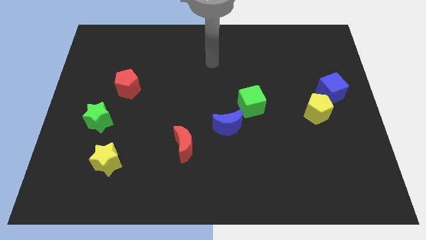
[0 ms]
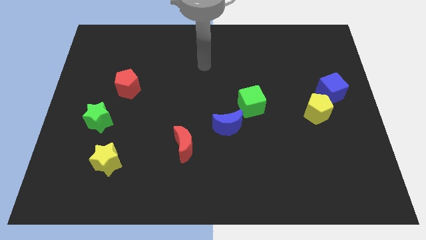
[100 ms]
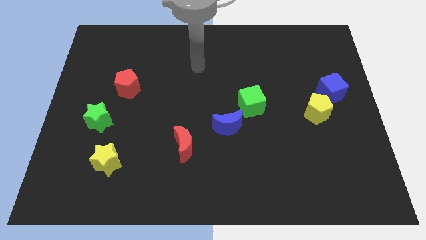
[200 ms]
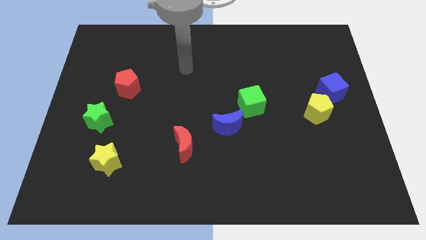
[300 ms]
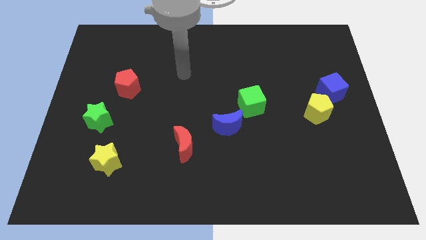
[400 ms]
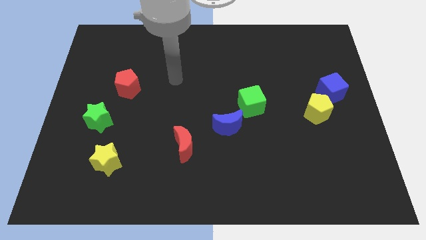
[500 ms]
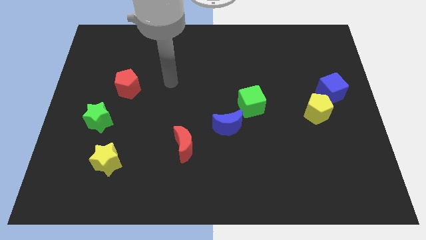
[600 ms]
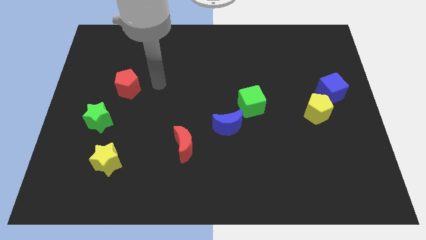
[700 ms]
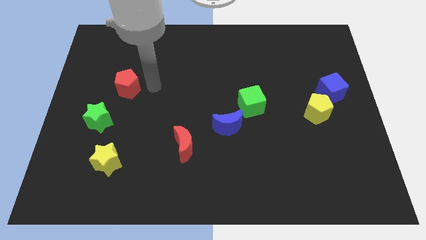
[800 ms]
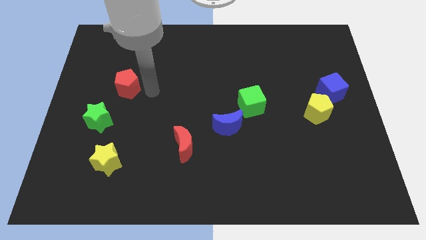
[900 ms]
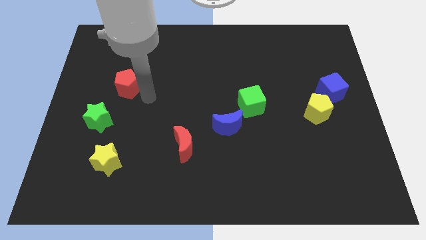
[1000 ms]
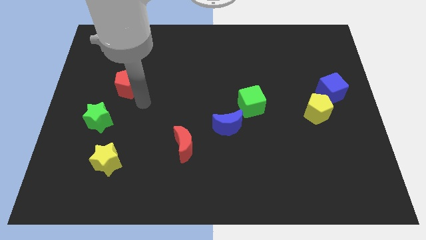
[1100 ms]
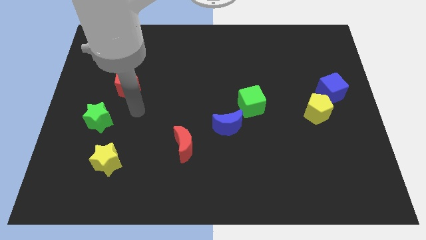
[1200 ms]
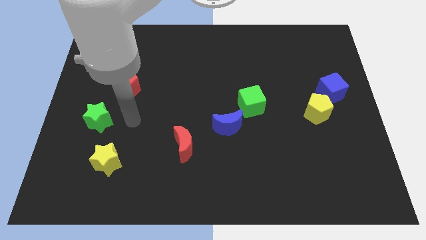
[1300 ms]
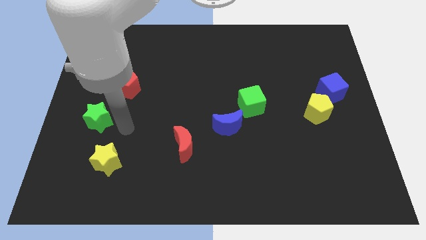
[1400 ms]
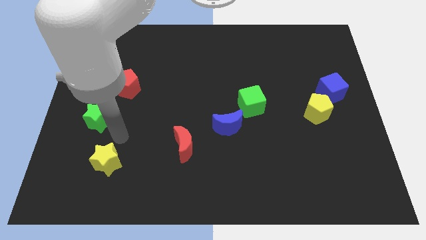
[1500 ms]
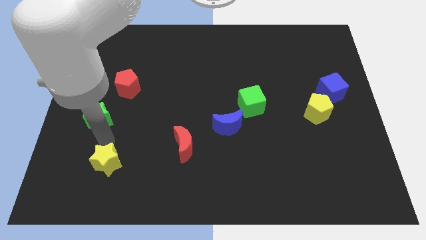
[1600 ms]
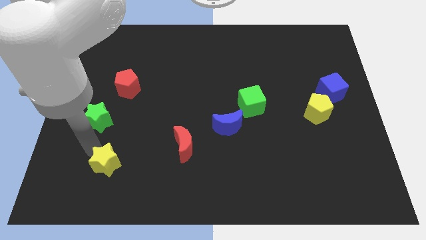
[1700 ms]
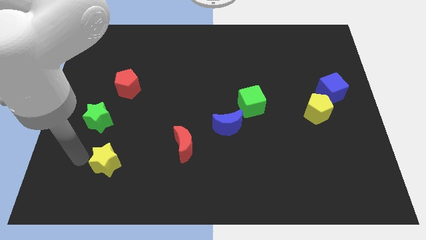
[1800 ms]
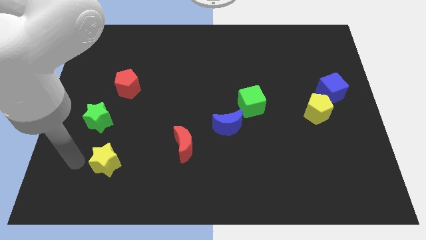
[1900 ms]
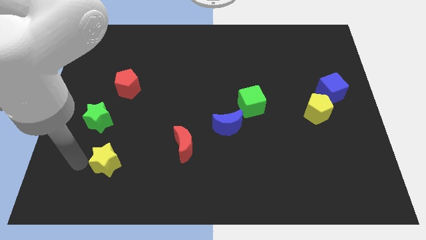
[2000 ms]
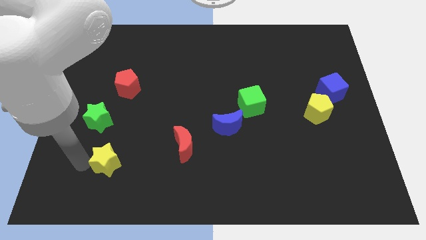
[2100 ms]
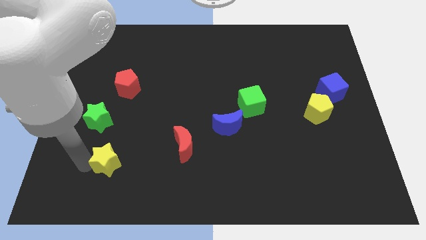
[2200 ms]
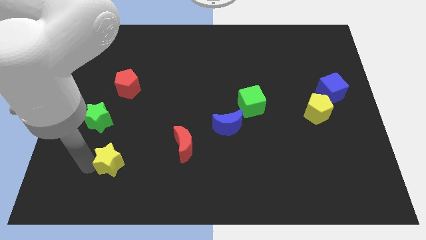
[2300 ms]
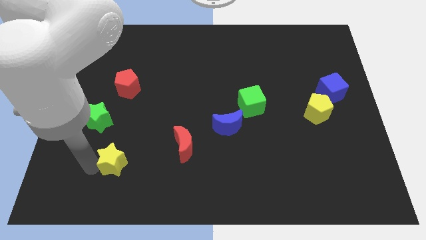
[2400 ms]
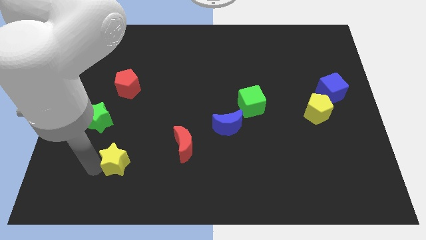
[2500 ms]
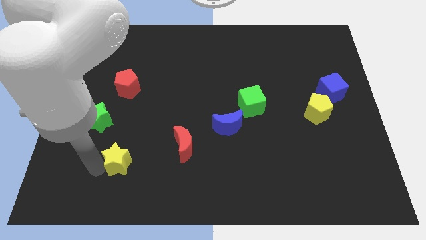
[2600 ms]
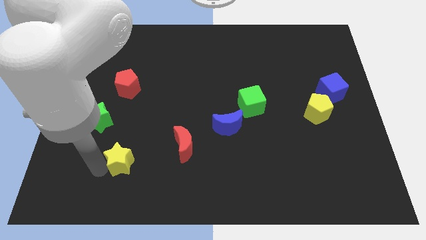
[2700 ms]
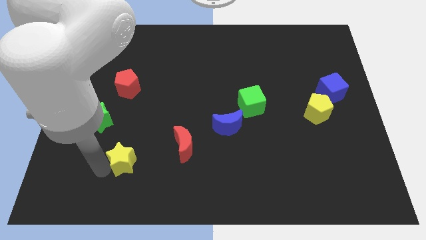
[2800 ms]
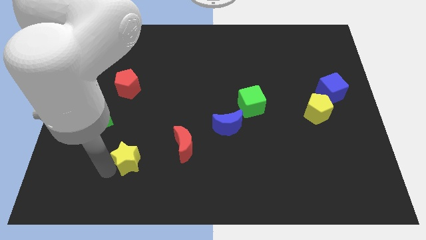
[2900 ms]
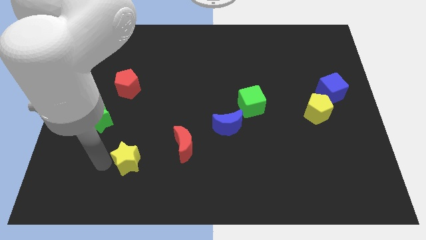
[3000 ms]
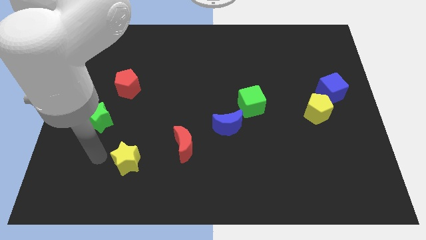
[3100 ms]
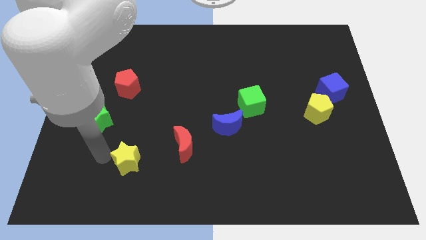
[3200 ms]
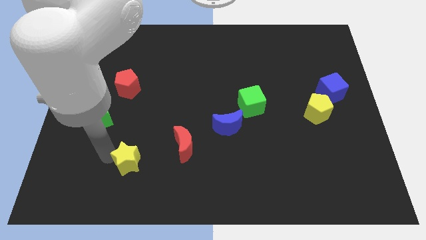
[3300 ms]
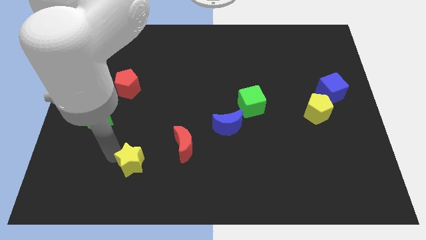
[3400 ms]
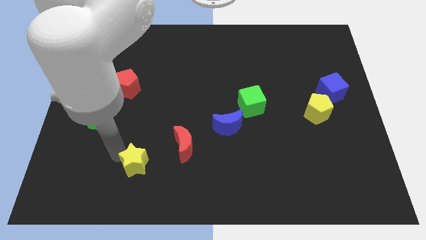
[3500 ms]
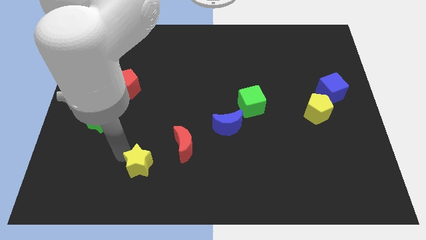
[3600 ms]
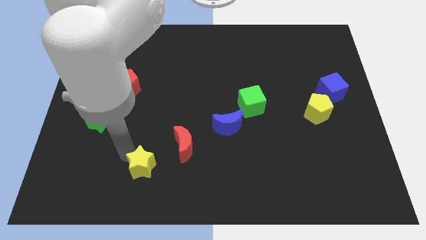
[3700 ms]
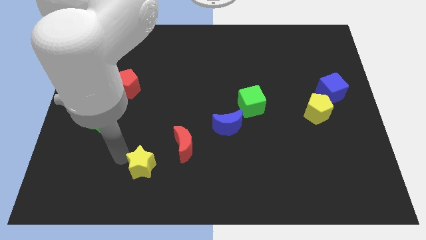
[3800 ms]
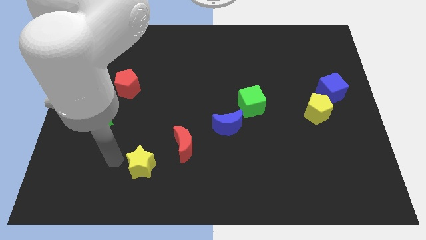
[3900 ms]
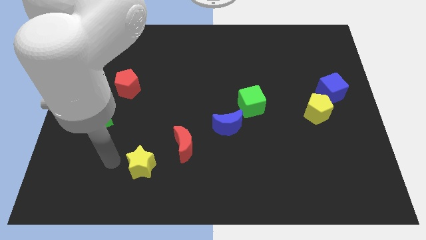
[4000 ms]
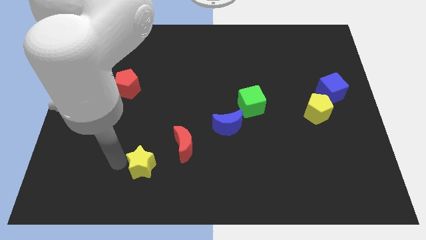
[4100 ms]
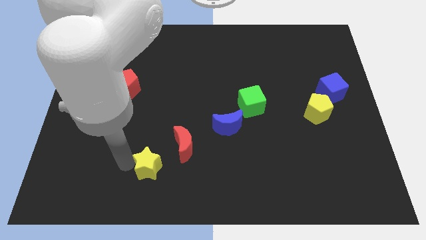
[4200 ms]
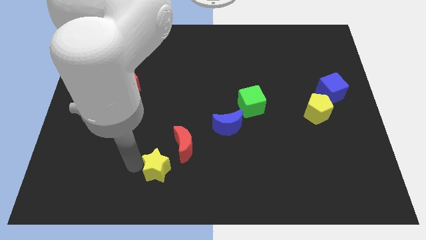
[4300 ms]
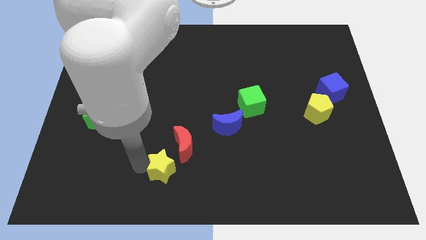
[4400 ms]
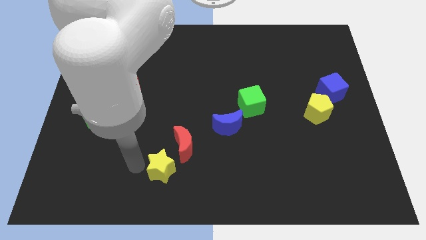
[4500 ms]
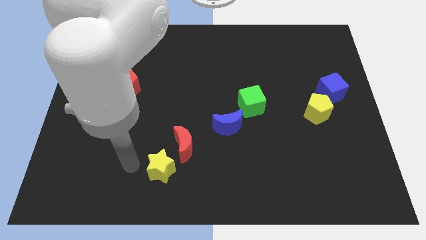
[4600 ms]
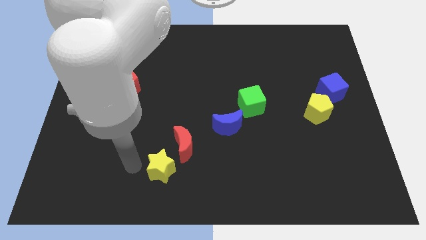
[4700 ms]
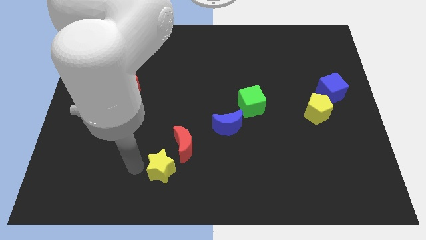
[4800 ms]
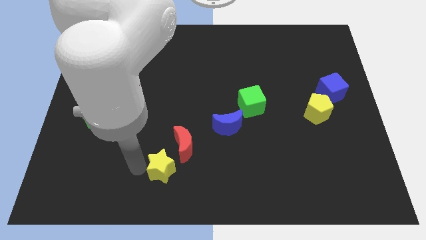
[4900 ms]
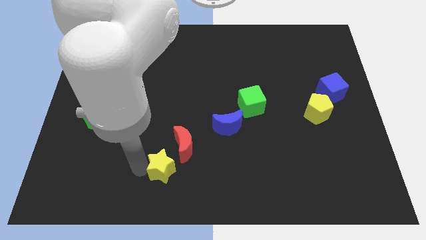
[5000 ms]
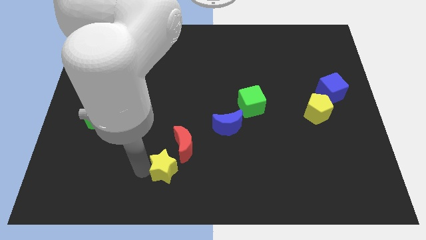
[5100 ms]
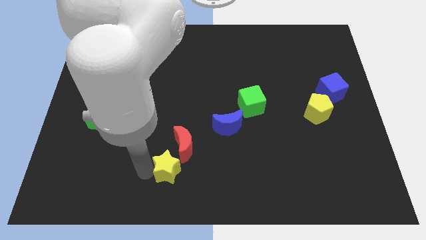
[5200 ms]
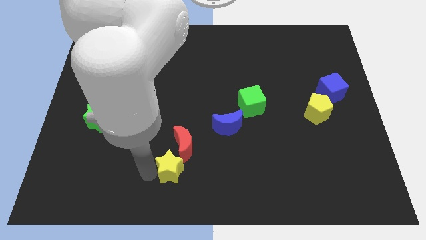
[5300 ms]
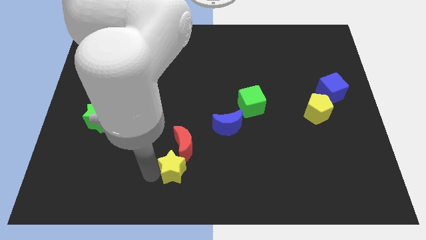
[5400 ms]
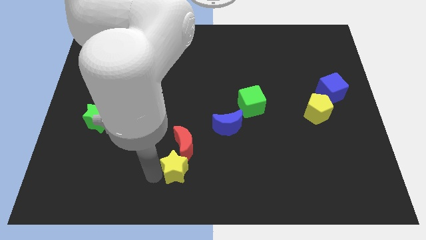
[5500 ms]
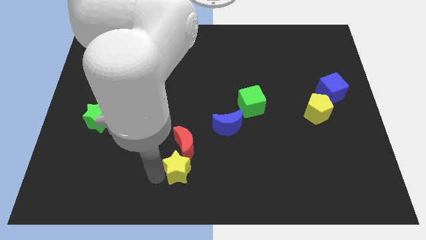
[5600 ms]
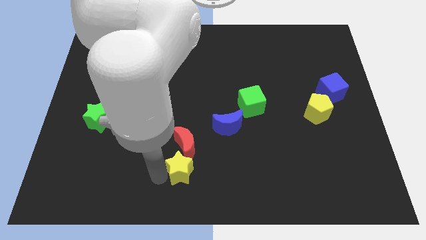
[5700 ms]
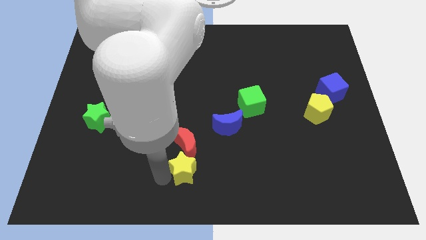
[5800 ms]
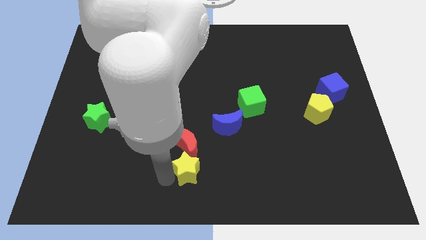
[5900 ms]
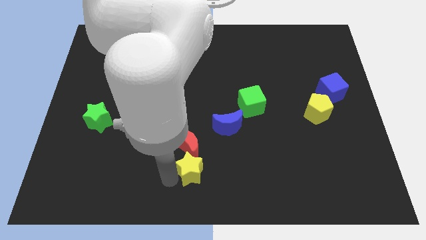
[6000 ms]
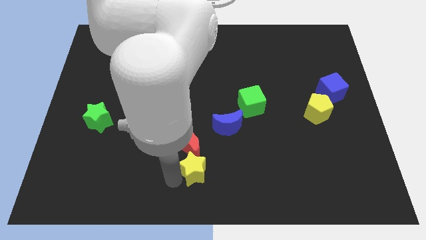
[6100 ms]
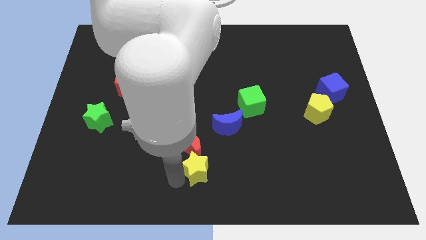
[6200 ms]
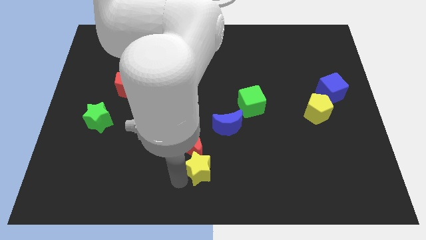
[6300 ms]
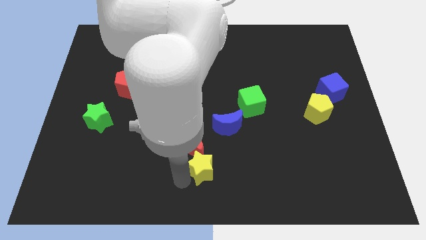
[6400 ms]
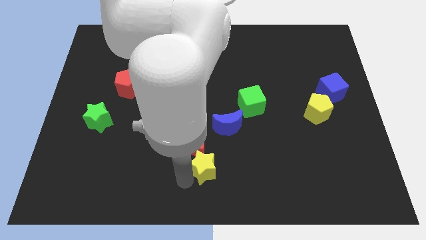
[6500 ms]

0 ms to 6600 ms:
slide the yellow star to the right

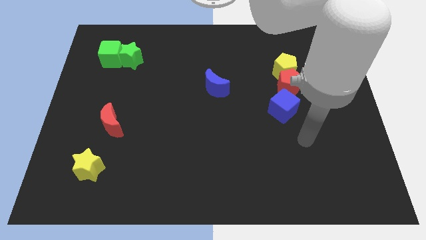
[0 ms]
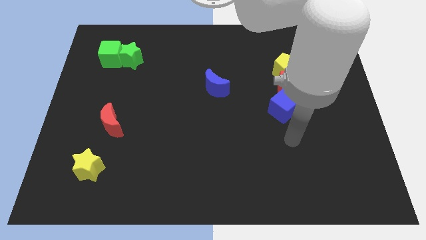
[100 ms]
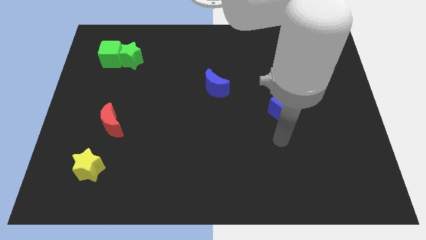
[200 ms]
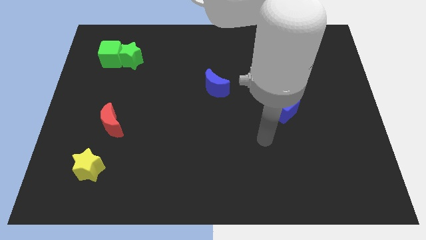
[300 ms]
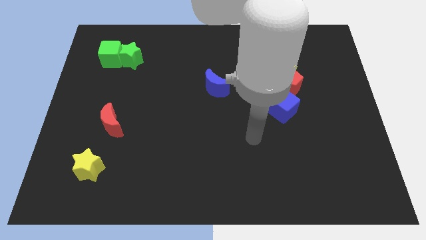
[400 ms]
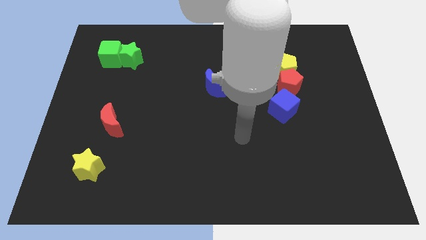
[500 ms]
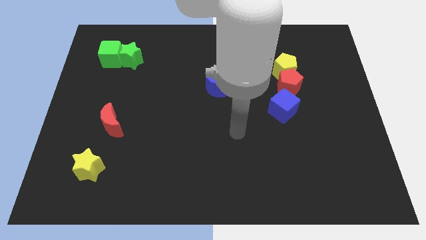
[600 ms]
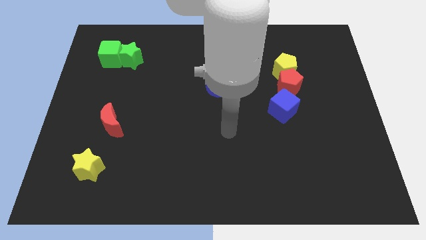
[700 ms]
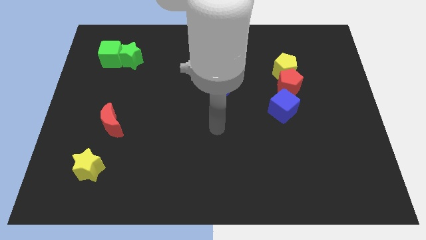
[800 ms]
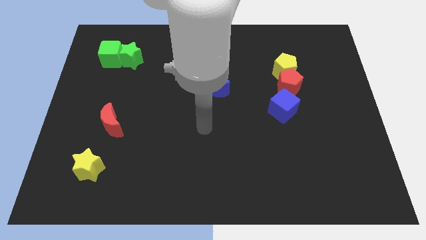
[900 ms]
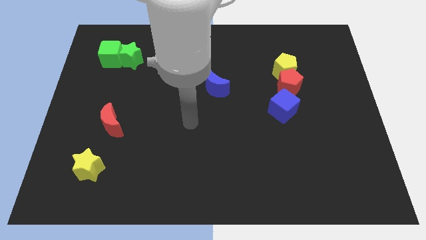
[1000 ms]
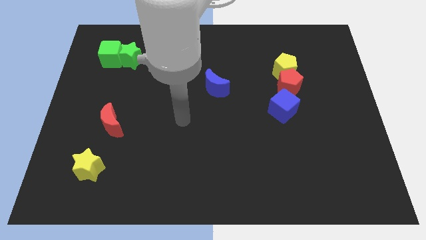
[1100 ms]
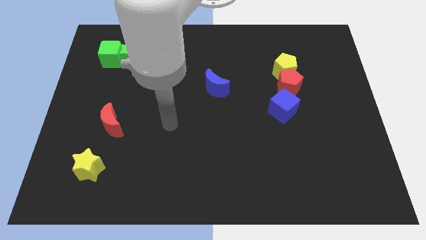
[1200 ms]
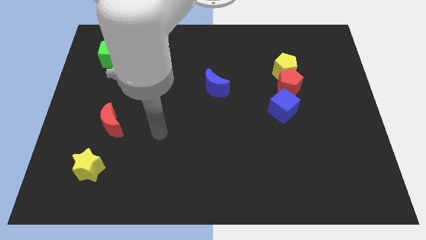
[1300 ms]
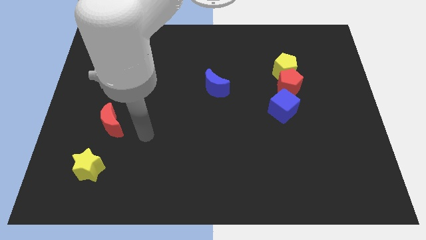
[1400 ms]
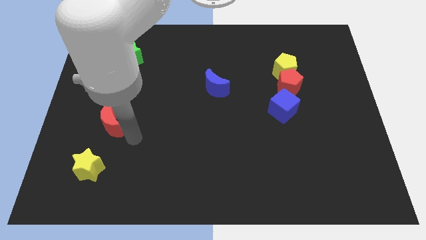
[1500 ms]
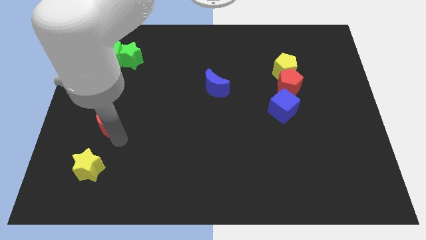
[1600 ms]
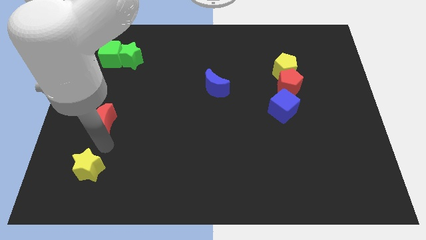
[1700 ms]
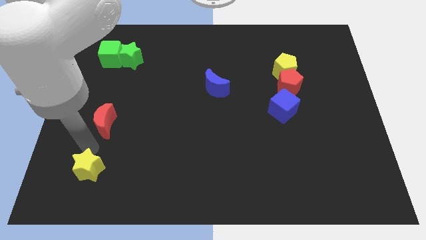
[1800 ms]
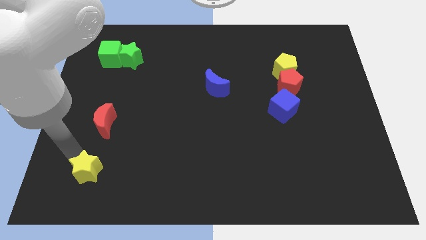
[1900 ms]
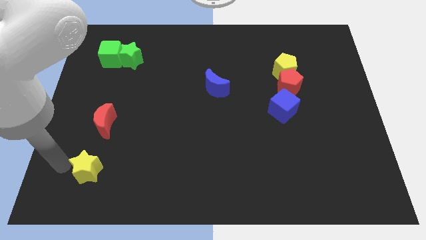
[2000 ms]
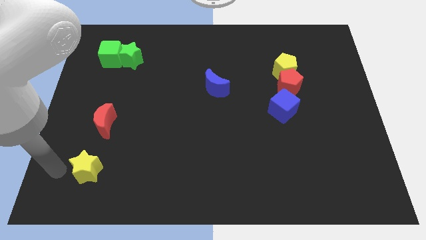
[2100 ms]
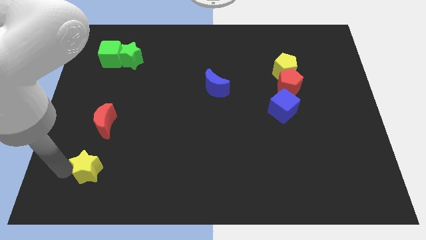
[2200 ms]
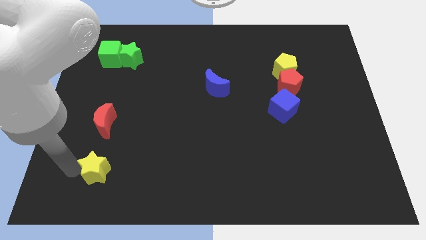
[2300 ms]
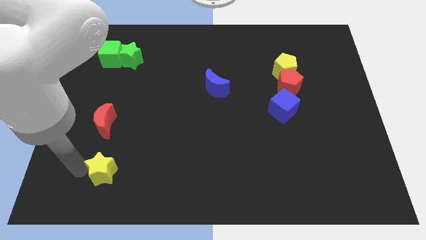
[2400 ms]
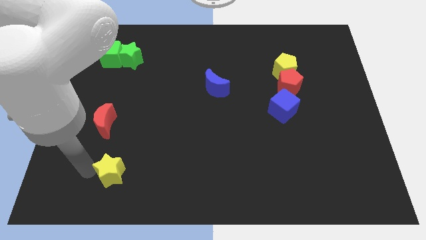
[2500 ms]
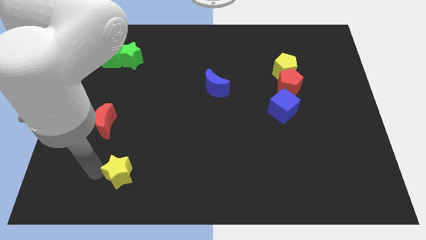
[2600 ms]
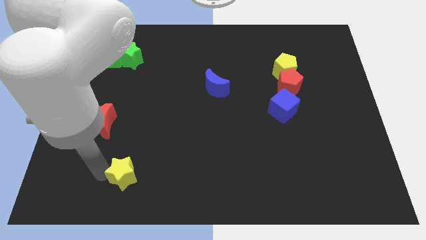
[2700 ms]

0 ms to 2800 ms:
slightly slide the yellow star to the right
